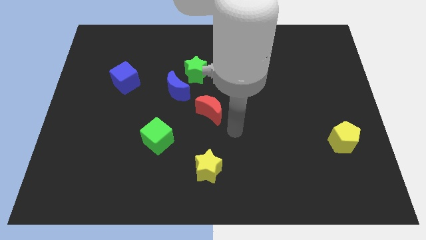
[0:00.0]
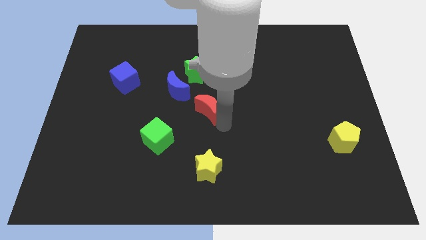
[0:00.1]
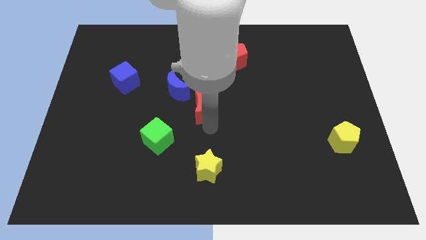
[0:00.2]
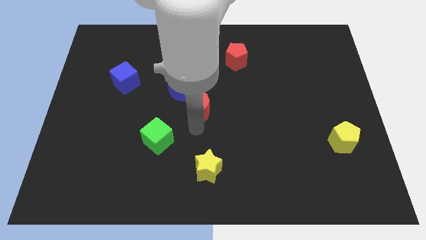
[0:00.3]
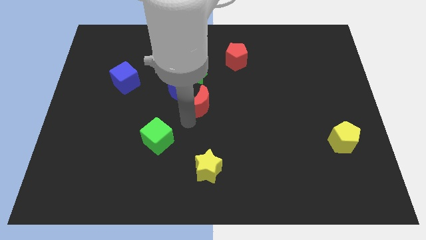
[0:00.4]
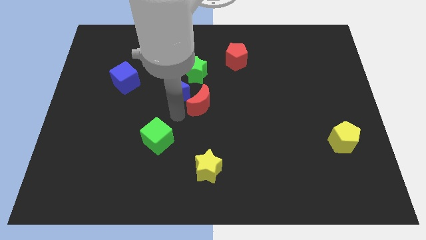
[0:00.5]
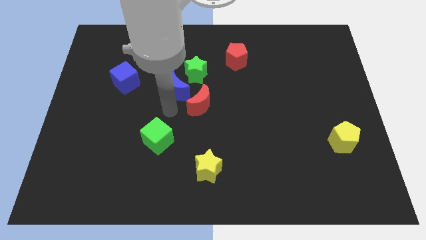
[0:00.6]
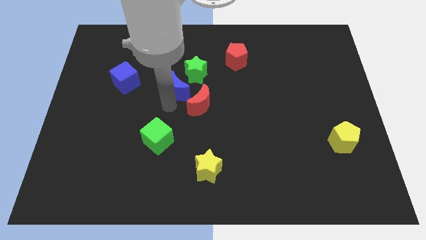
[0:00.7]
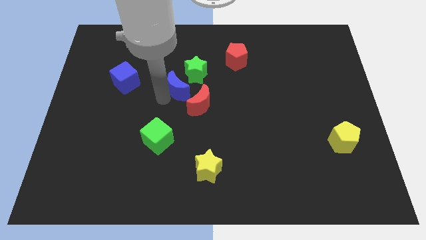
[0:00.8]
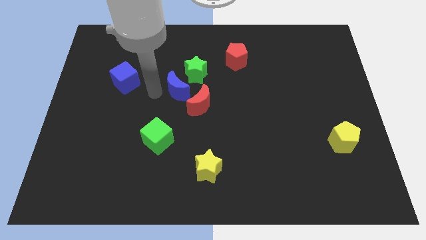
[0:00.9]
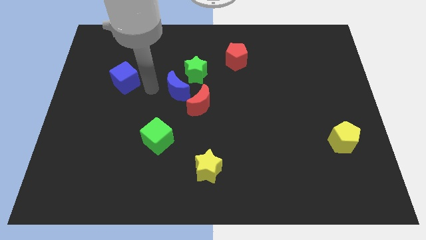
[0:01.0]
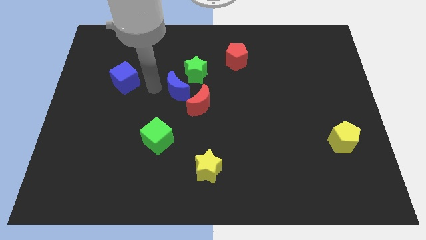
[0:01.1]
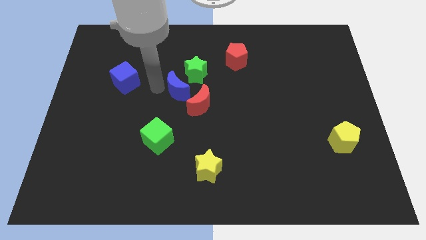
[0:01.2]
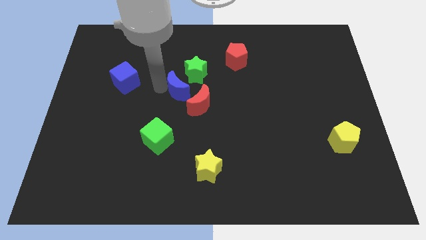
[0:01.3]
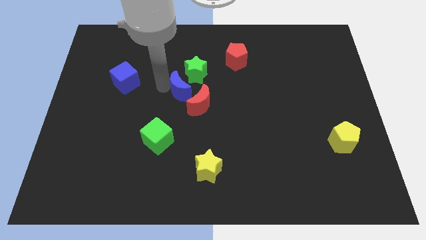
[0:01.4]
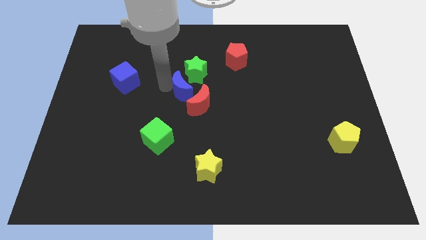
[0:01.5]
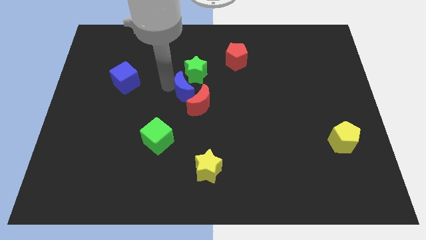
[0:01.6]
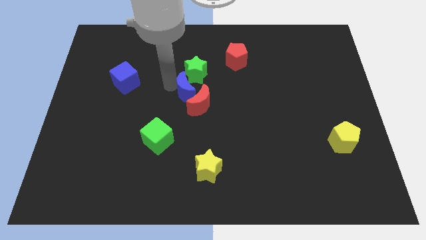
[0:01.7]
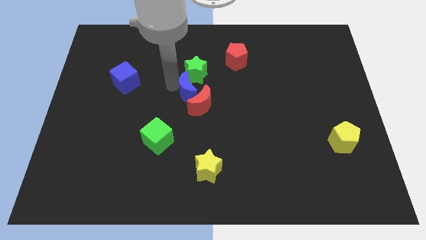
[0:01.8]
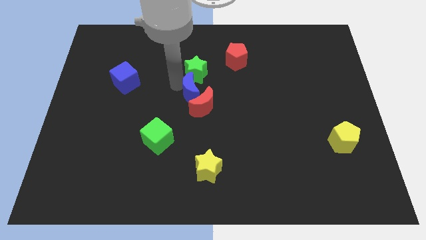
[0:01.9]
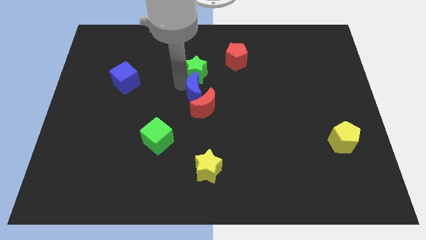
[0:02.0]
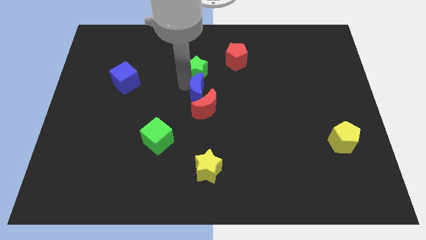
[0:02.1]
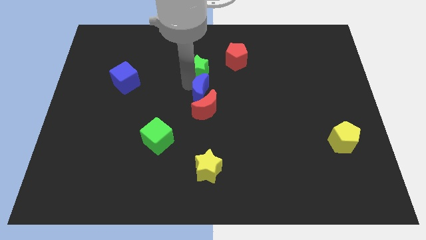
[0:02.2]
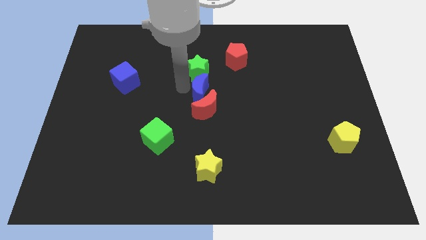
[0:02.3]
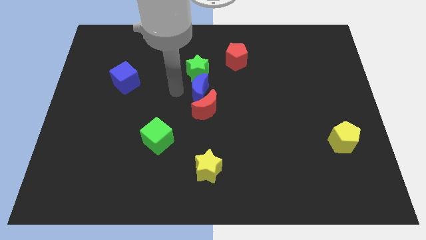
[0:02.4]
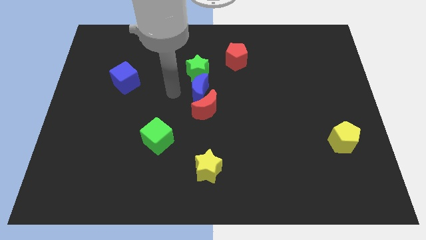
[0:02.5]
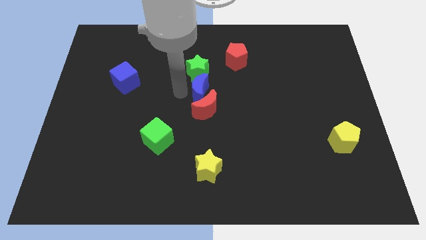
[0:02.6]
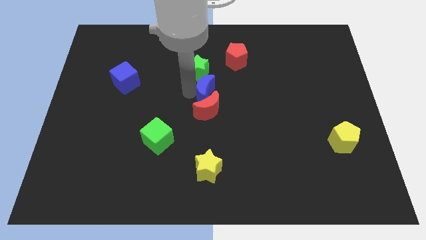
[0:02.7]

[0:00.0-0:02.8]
slightly push the blue moon right

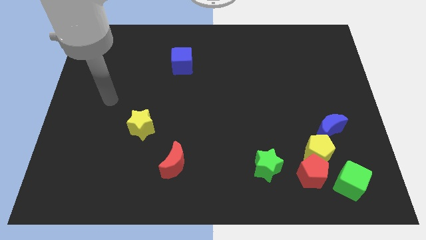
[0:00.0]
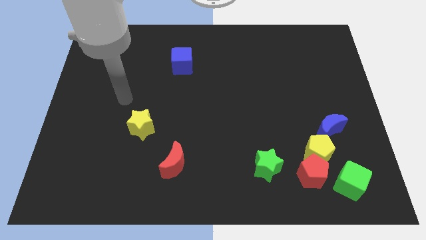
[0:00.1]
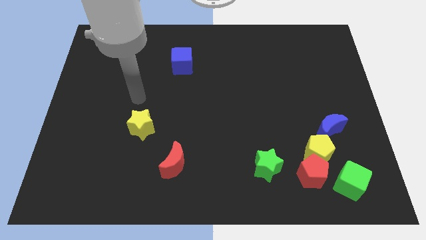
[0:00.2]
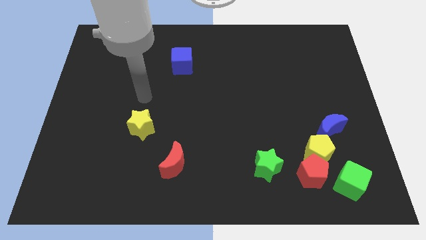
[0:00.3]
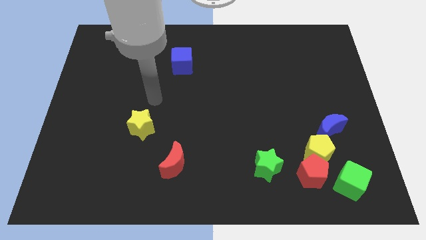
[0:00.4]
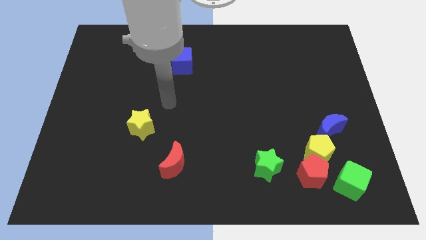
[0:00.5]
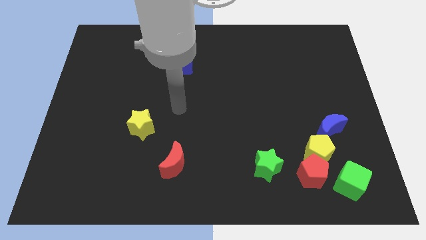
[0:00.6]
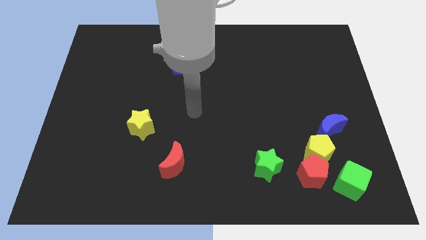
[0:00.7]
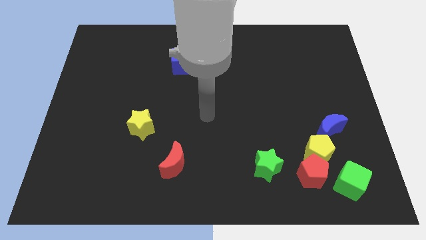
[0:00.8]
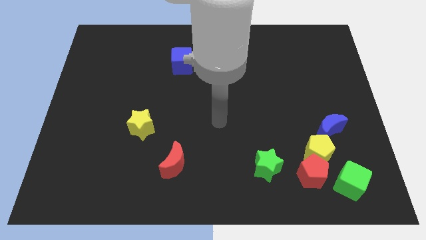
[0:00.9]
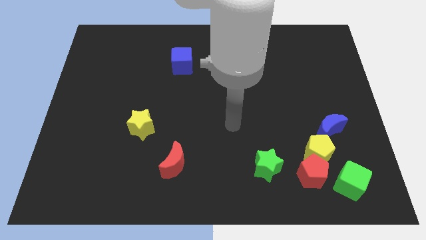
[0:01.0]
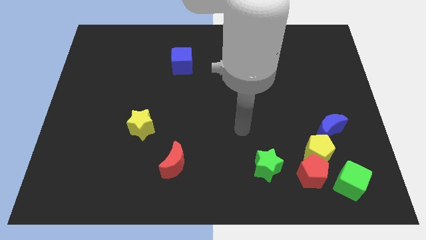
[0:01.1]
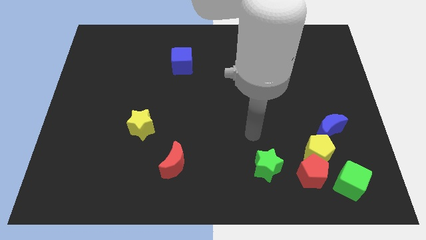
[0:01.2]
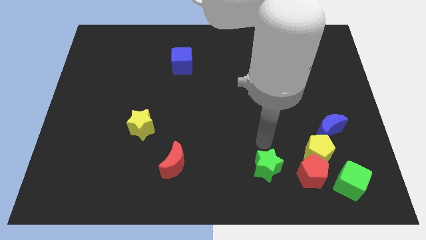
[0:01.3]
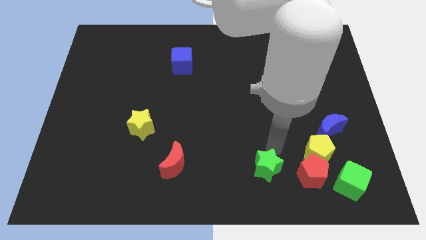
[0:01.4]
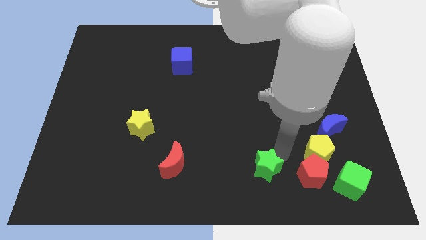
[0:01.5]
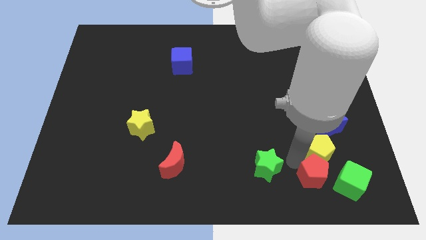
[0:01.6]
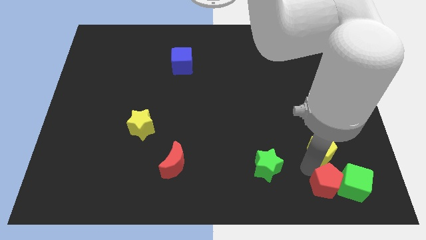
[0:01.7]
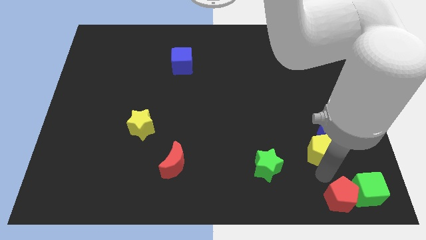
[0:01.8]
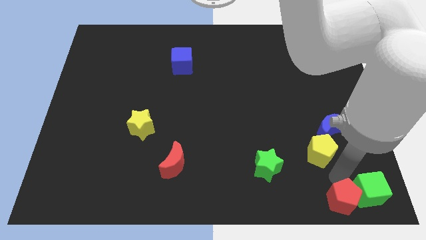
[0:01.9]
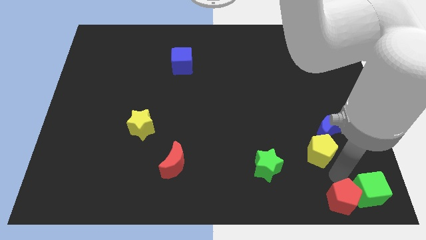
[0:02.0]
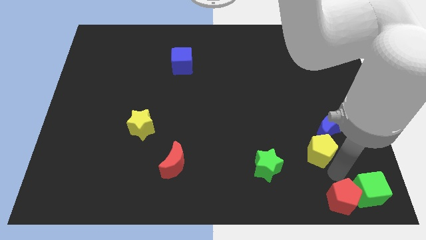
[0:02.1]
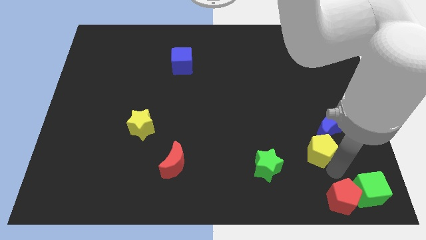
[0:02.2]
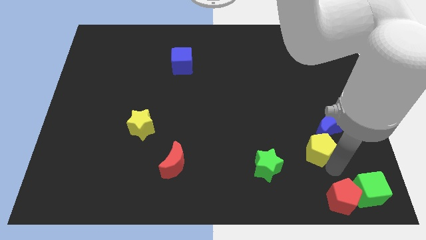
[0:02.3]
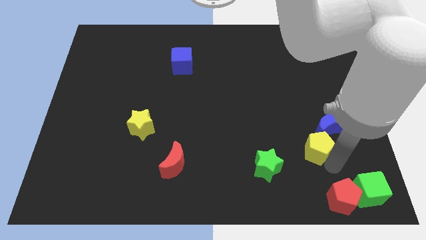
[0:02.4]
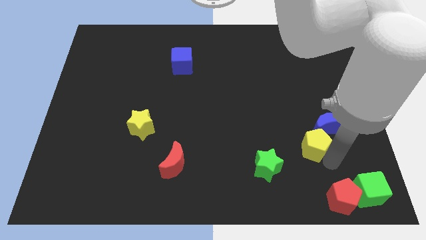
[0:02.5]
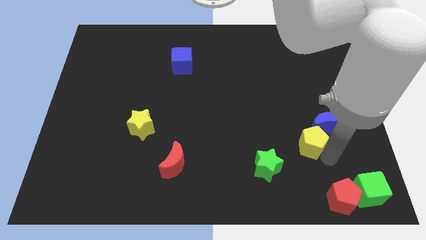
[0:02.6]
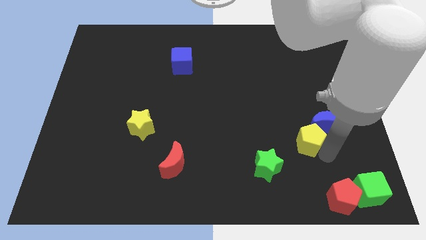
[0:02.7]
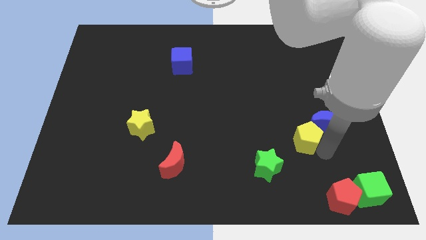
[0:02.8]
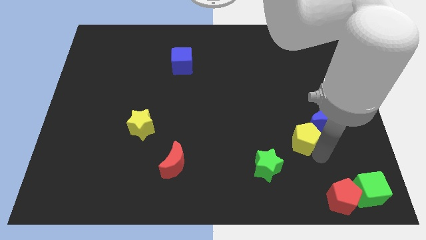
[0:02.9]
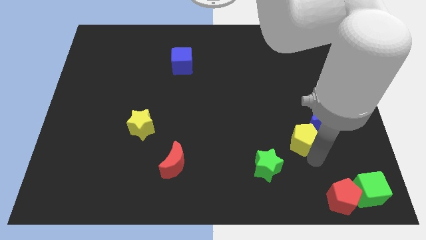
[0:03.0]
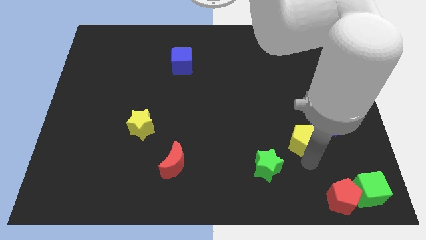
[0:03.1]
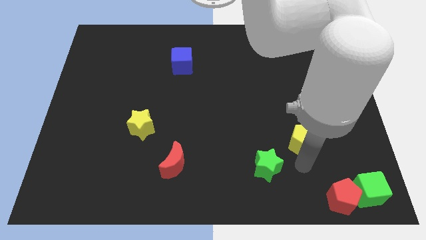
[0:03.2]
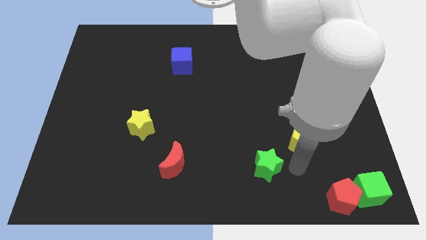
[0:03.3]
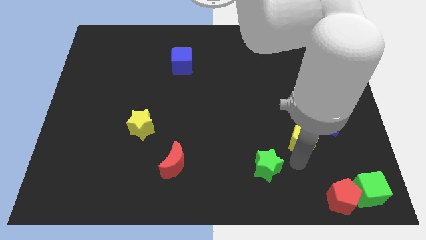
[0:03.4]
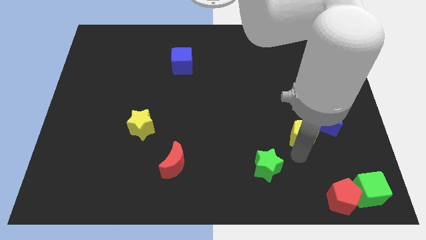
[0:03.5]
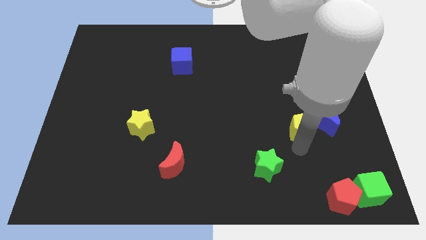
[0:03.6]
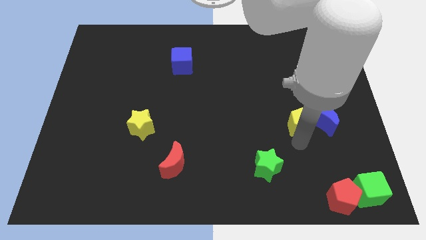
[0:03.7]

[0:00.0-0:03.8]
slightly slide the yellow pentagon upwards

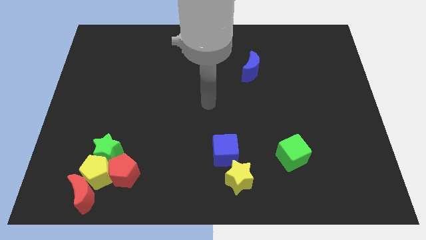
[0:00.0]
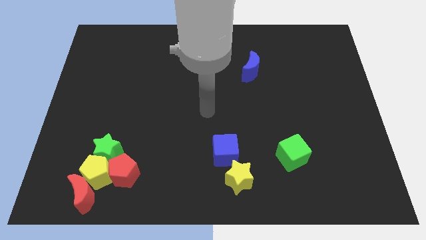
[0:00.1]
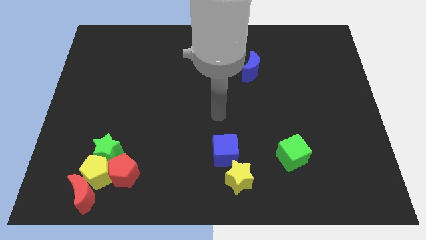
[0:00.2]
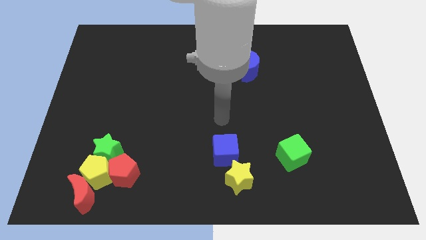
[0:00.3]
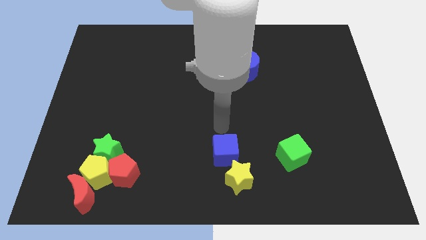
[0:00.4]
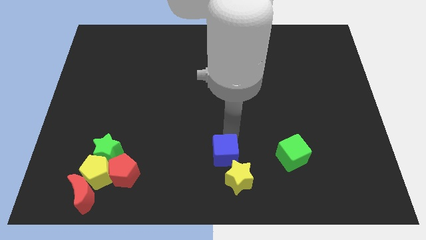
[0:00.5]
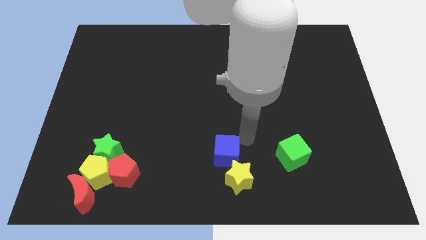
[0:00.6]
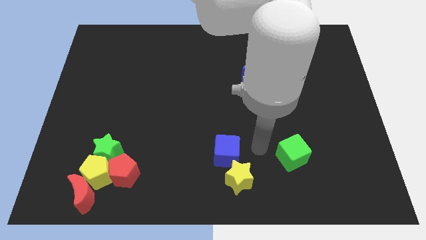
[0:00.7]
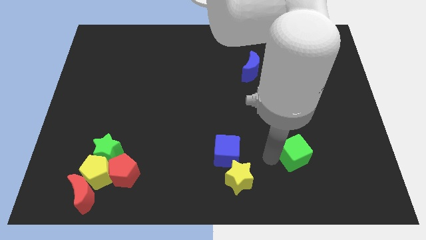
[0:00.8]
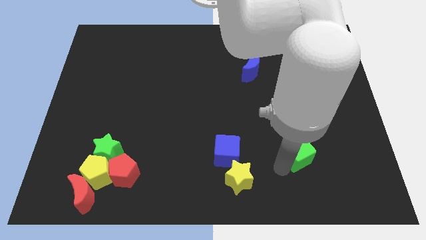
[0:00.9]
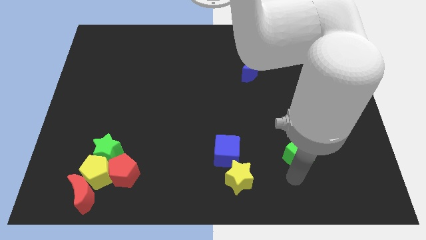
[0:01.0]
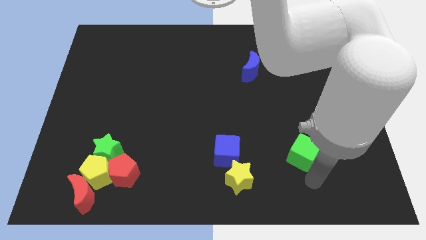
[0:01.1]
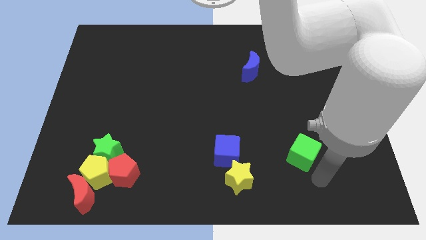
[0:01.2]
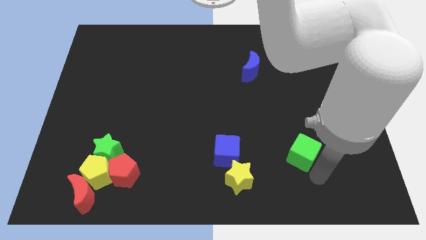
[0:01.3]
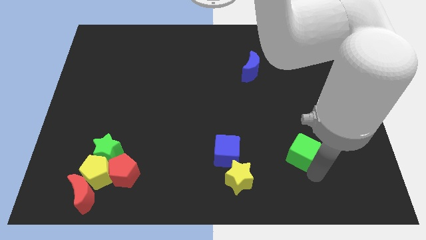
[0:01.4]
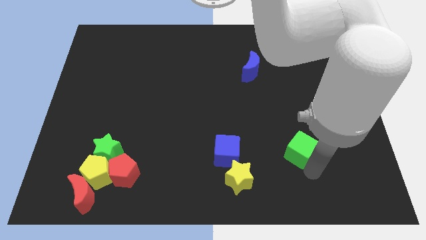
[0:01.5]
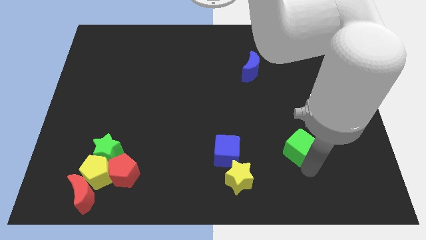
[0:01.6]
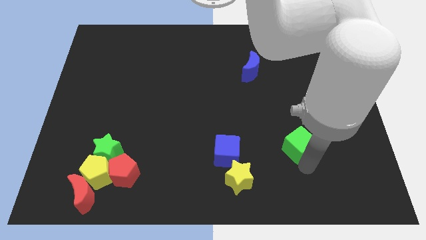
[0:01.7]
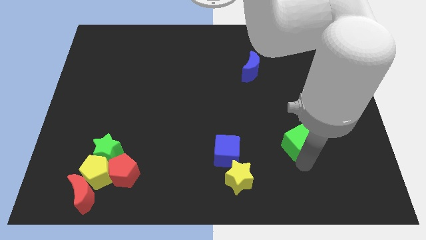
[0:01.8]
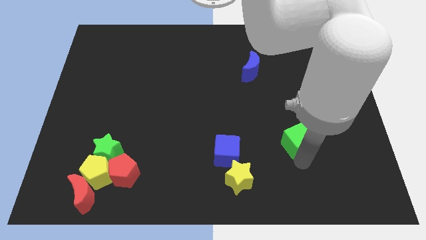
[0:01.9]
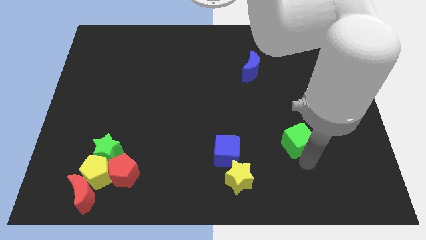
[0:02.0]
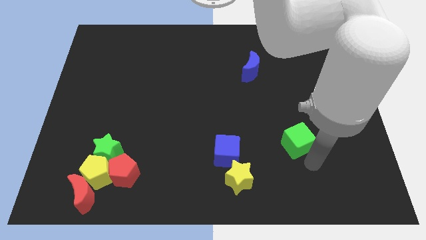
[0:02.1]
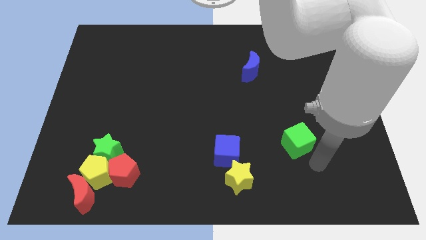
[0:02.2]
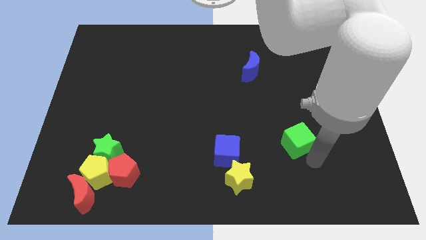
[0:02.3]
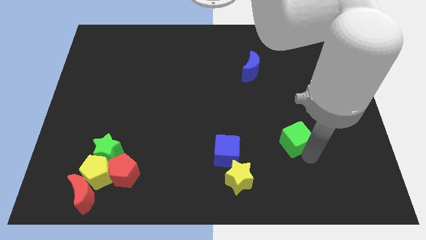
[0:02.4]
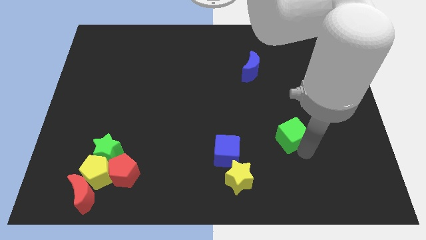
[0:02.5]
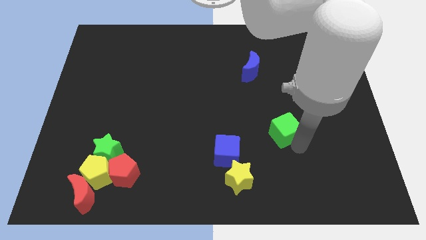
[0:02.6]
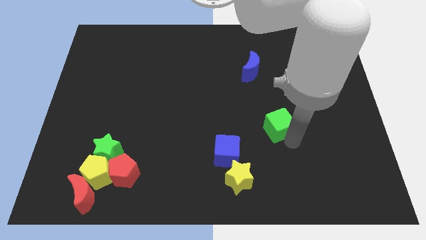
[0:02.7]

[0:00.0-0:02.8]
move the green cube slightly up
